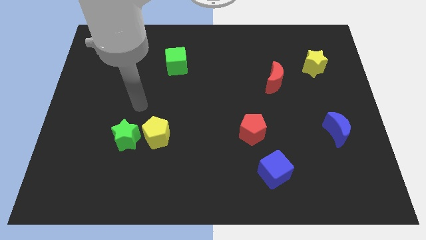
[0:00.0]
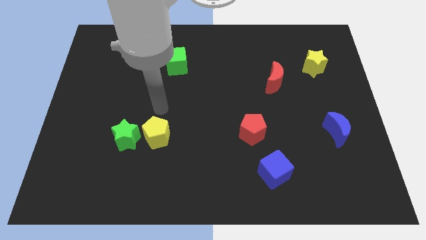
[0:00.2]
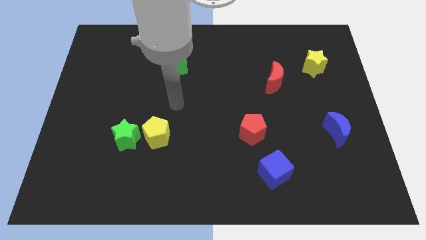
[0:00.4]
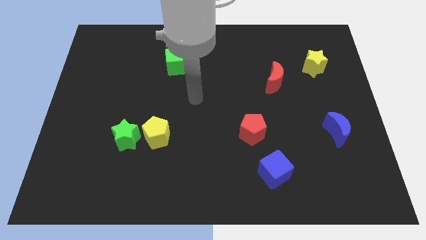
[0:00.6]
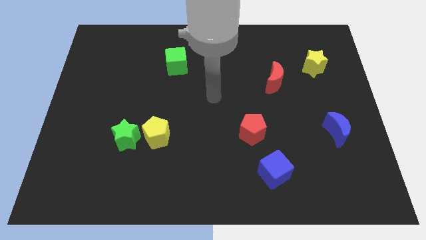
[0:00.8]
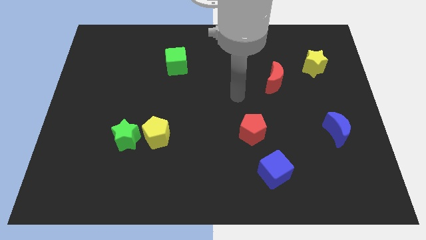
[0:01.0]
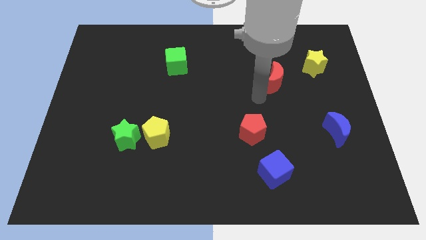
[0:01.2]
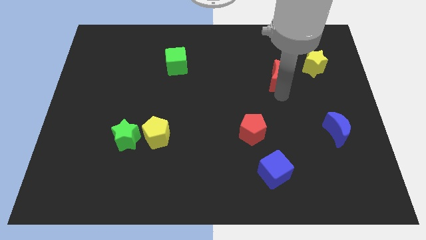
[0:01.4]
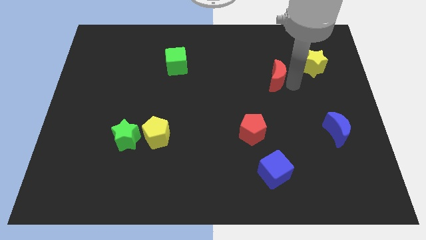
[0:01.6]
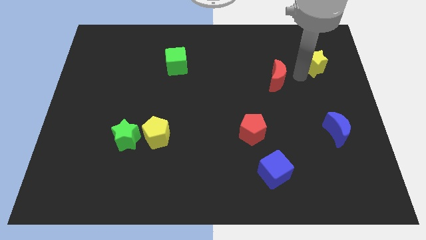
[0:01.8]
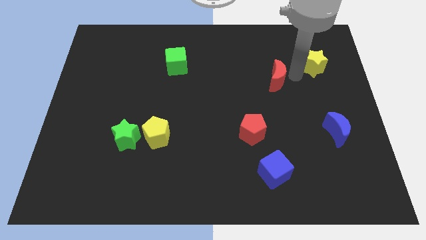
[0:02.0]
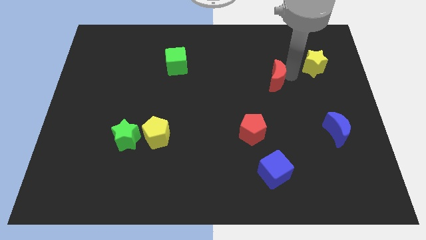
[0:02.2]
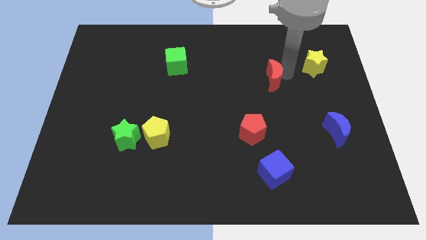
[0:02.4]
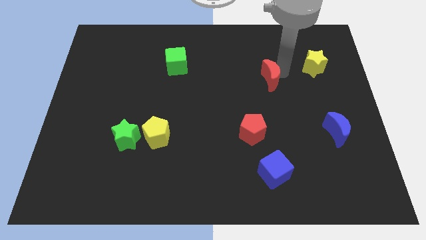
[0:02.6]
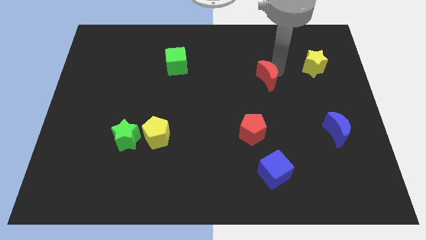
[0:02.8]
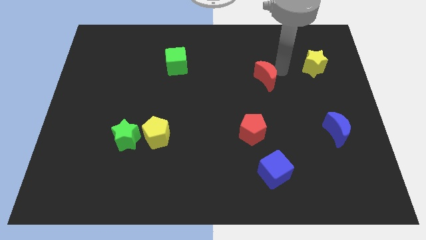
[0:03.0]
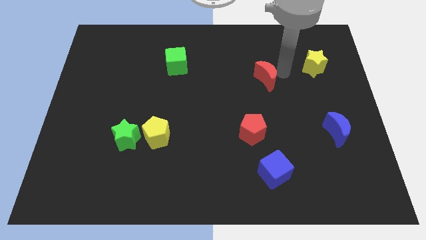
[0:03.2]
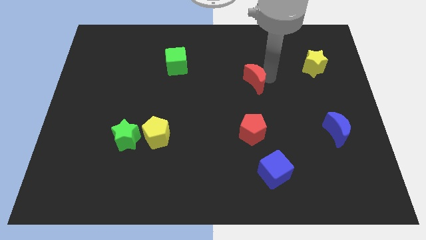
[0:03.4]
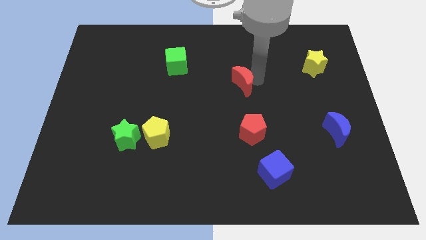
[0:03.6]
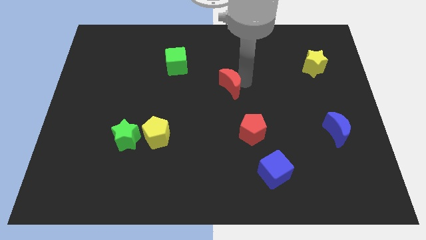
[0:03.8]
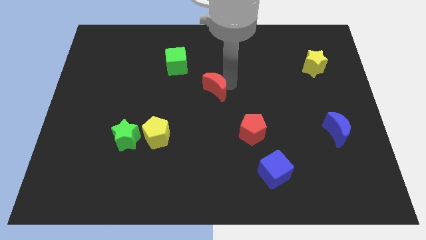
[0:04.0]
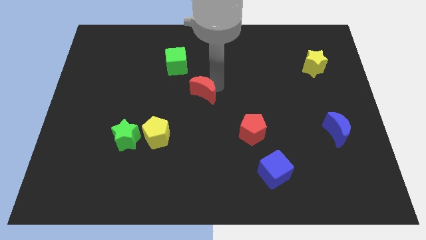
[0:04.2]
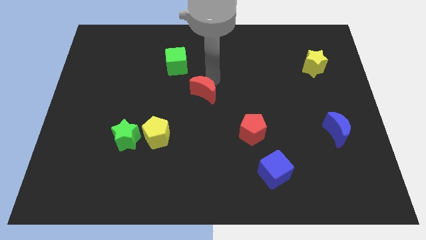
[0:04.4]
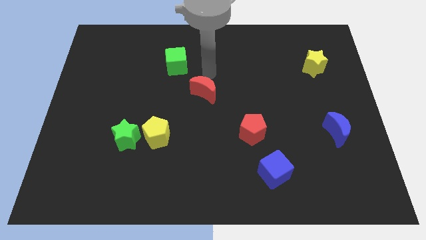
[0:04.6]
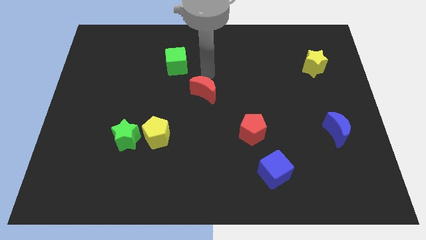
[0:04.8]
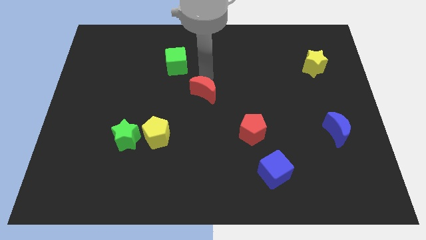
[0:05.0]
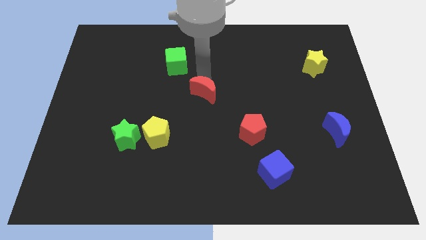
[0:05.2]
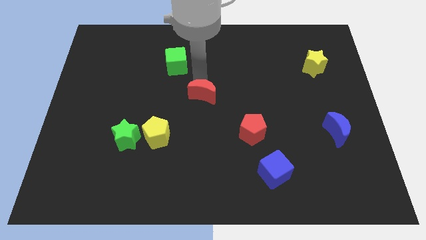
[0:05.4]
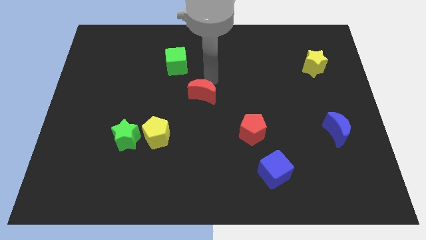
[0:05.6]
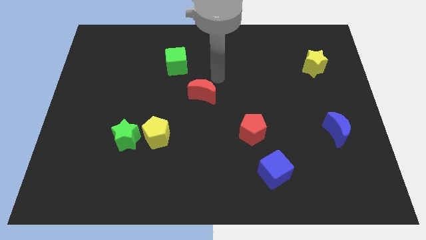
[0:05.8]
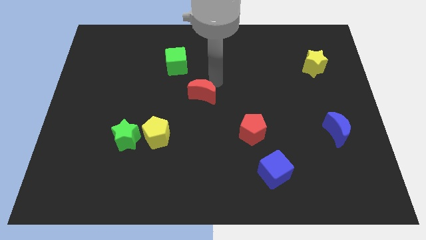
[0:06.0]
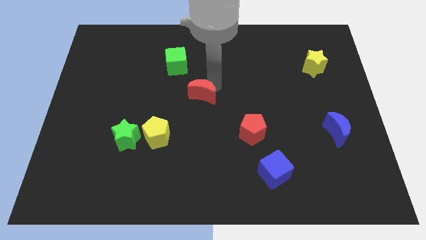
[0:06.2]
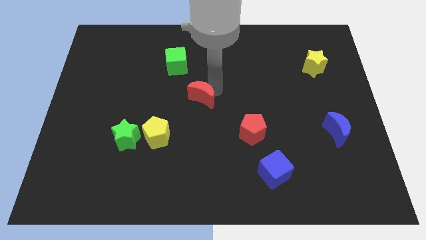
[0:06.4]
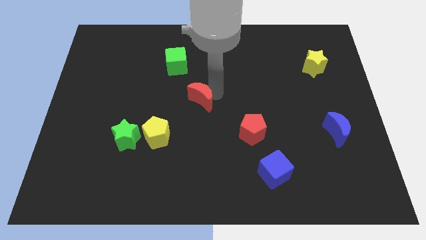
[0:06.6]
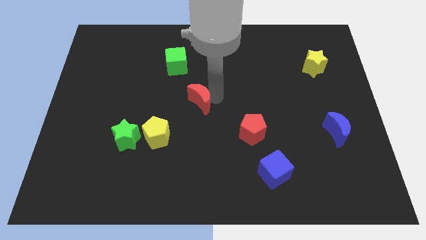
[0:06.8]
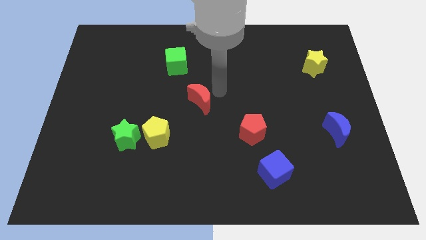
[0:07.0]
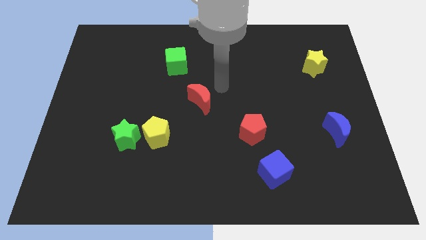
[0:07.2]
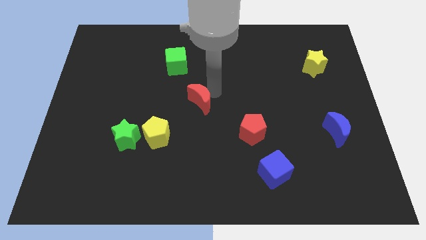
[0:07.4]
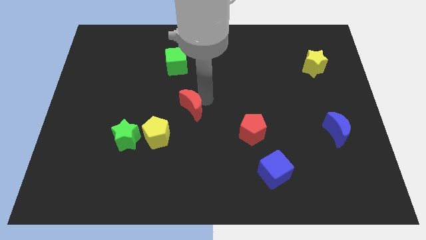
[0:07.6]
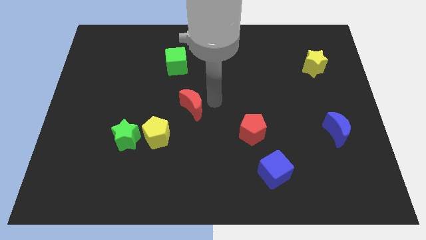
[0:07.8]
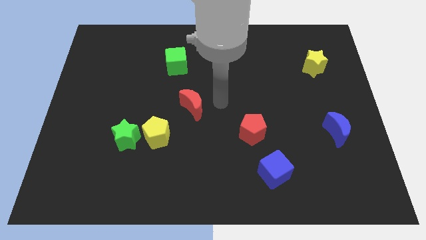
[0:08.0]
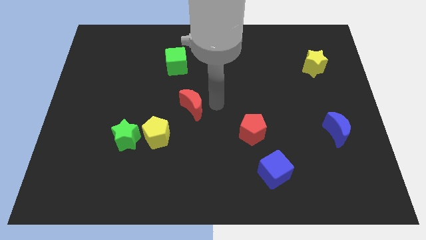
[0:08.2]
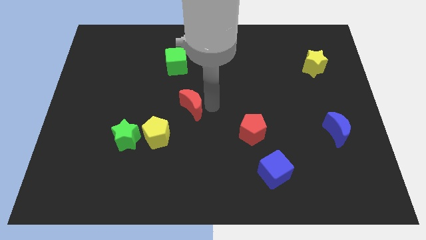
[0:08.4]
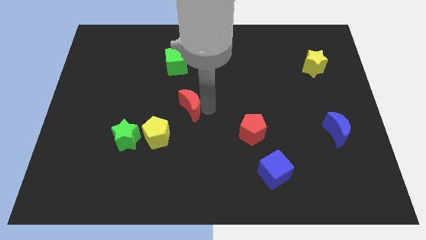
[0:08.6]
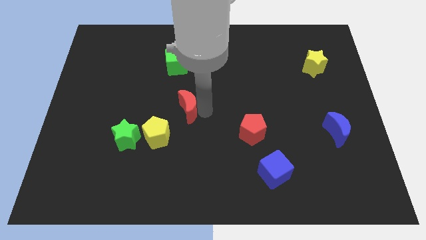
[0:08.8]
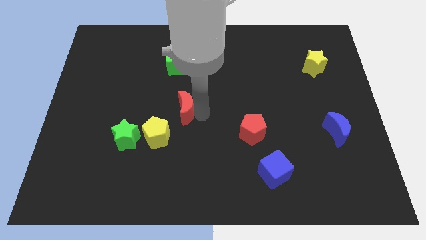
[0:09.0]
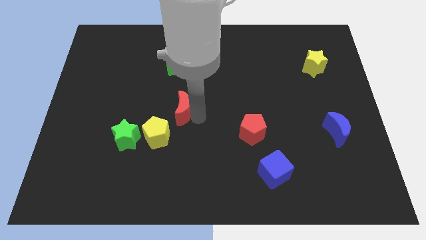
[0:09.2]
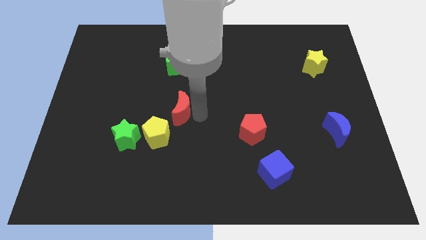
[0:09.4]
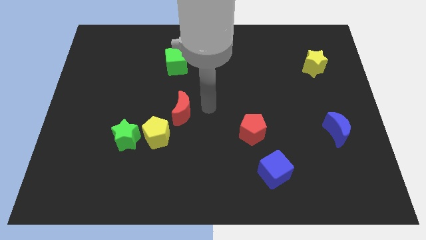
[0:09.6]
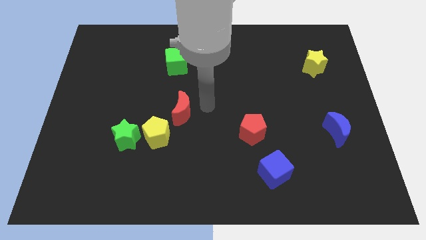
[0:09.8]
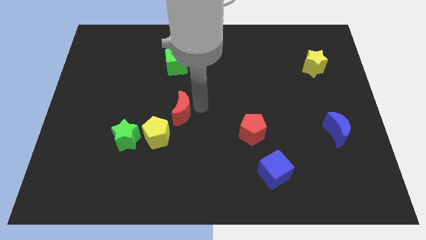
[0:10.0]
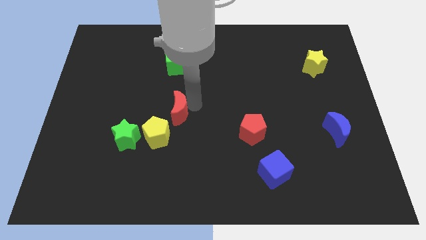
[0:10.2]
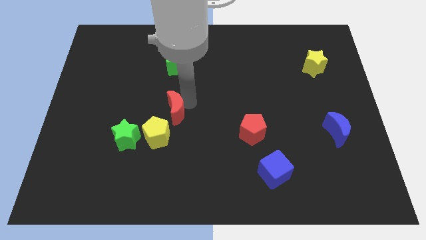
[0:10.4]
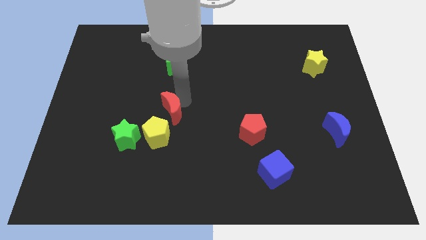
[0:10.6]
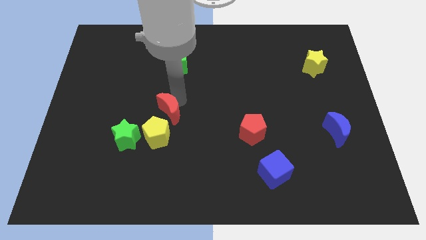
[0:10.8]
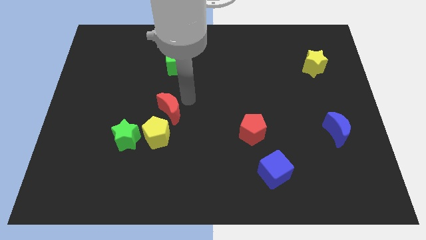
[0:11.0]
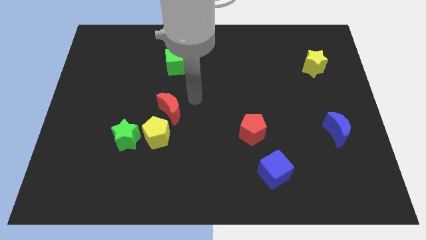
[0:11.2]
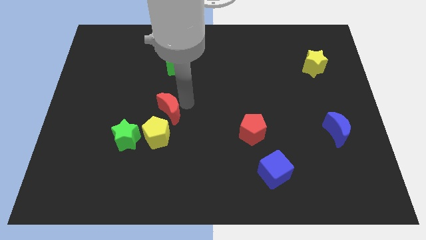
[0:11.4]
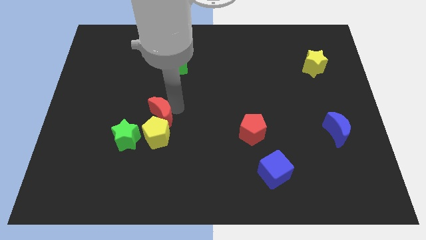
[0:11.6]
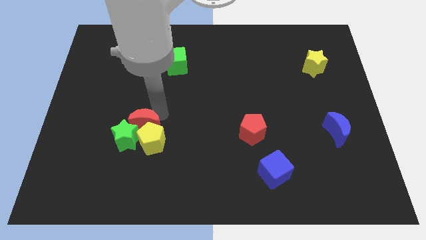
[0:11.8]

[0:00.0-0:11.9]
push the red moon towards the green star

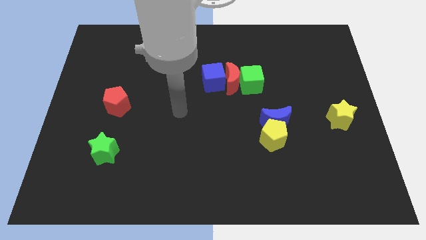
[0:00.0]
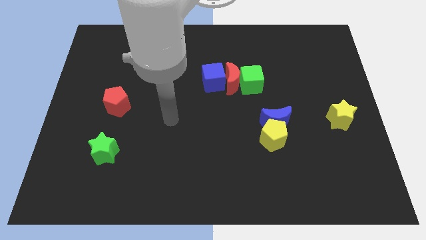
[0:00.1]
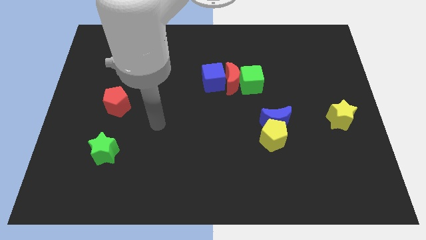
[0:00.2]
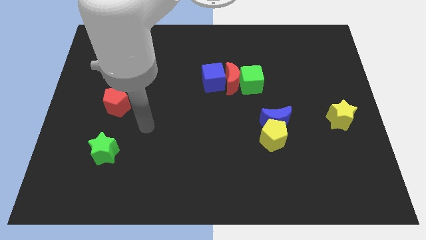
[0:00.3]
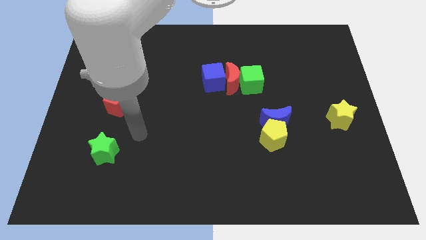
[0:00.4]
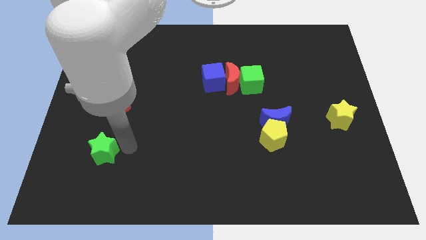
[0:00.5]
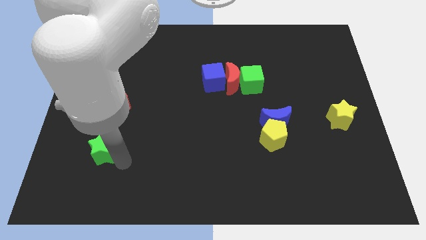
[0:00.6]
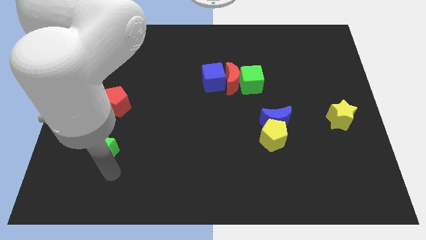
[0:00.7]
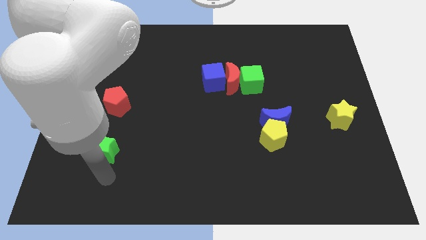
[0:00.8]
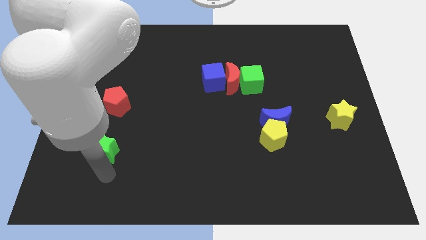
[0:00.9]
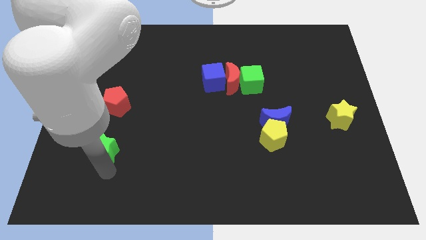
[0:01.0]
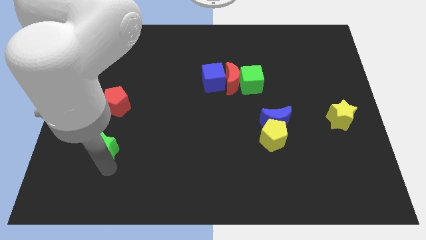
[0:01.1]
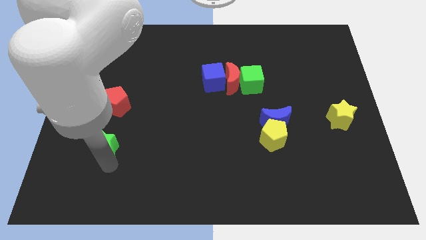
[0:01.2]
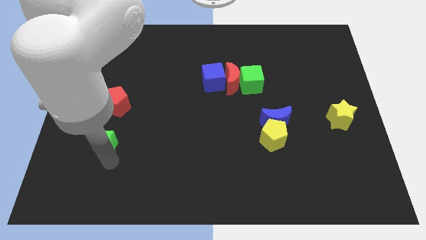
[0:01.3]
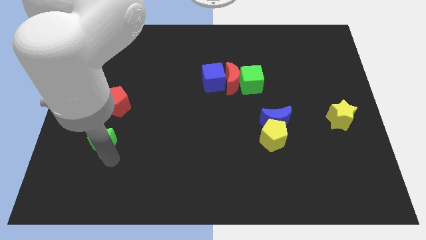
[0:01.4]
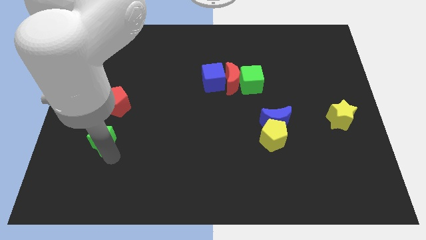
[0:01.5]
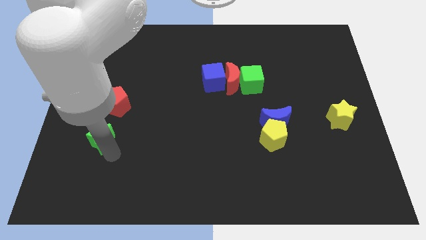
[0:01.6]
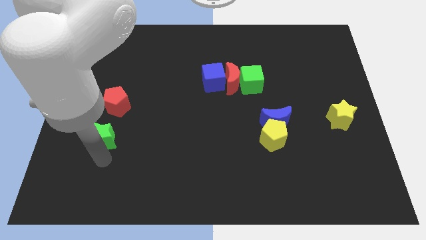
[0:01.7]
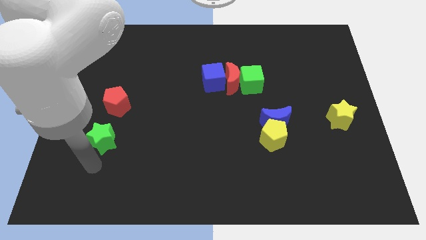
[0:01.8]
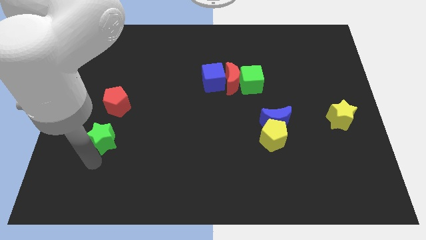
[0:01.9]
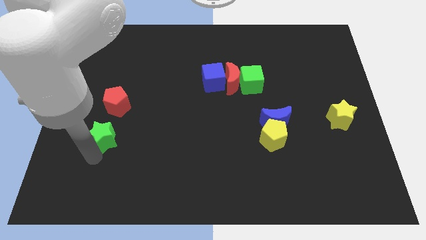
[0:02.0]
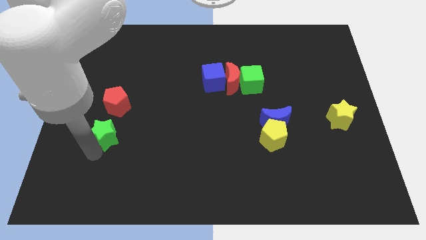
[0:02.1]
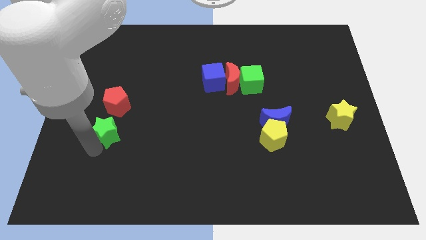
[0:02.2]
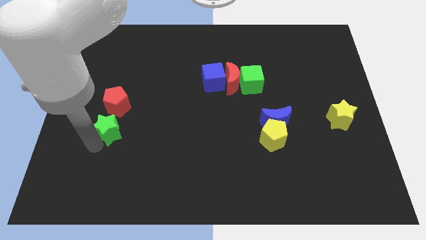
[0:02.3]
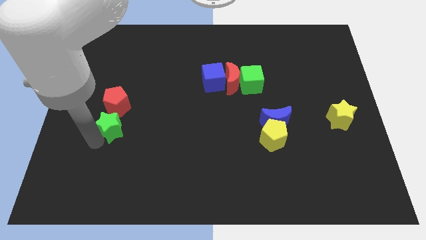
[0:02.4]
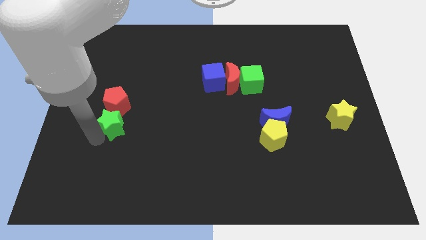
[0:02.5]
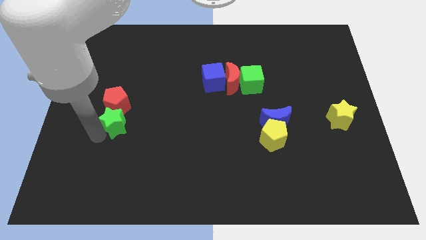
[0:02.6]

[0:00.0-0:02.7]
move the green star to the red pentagon
